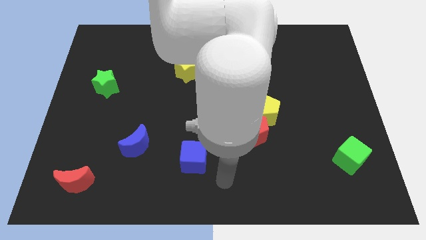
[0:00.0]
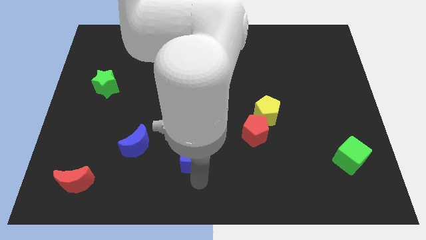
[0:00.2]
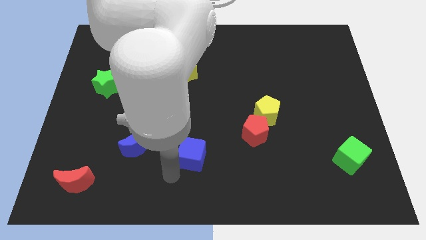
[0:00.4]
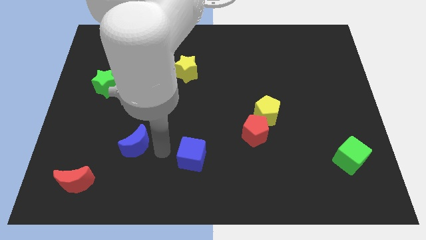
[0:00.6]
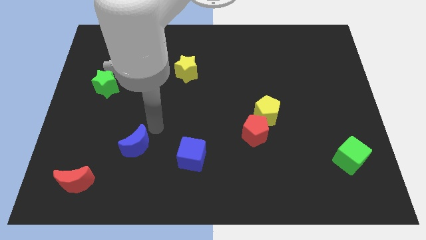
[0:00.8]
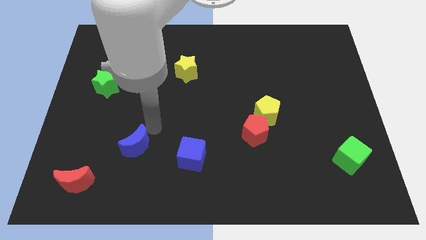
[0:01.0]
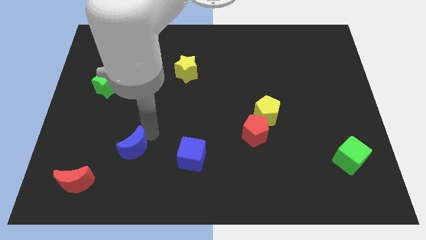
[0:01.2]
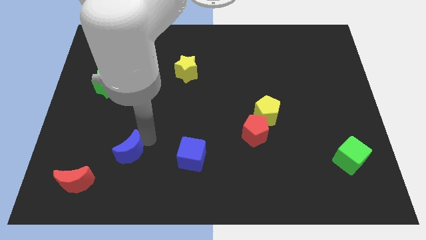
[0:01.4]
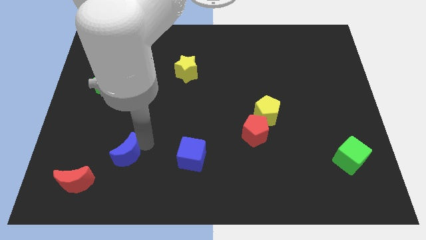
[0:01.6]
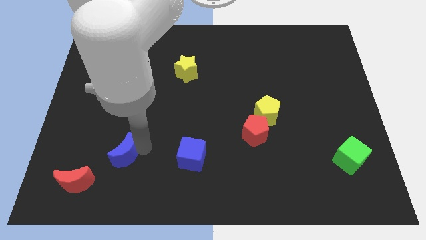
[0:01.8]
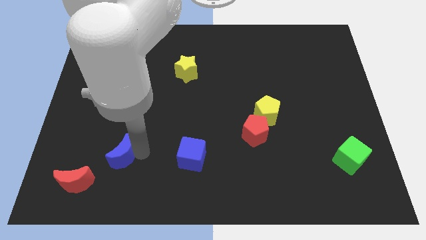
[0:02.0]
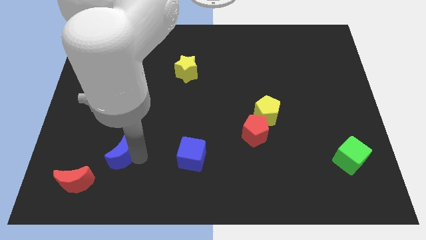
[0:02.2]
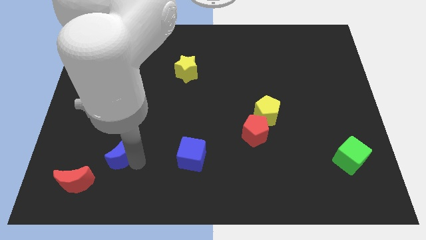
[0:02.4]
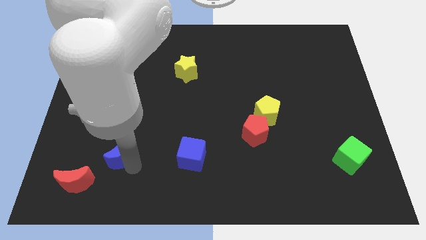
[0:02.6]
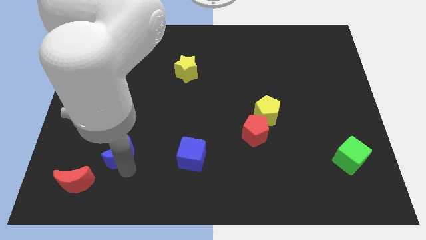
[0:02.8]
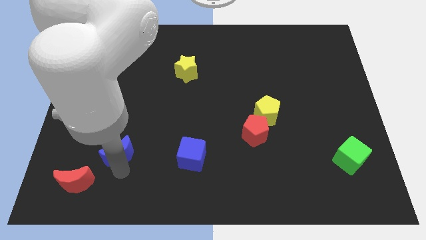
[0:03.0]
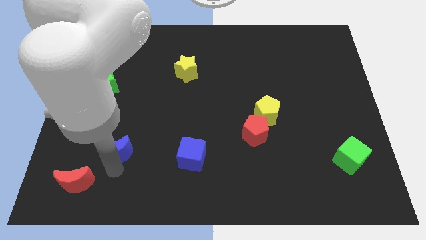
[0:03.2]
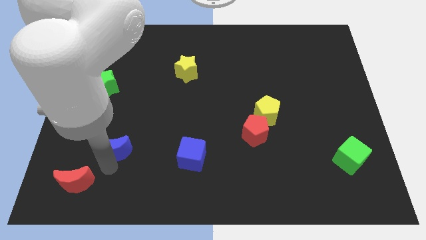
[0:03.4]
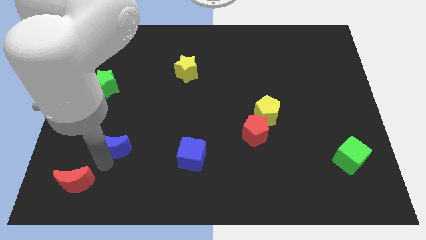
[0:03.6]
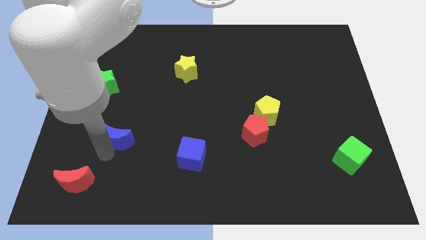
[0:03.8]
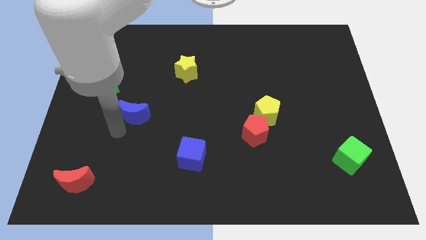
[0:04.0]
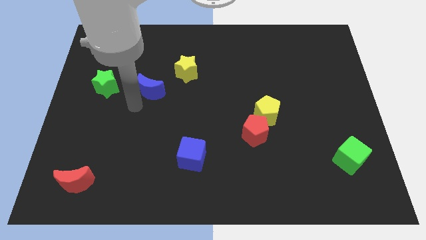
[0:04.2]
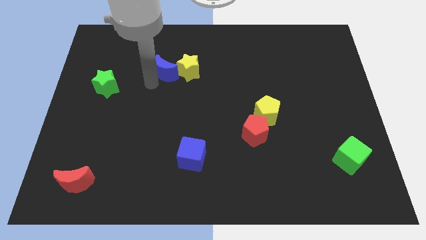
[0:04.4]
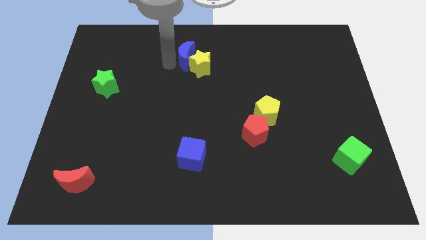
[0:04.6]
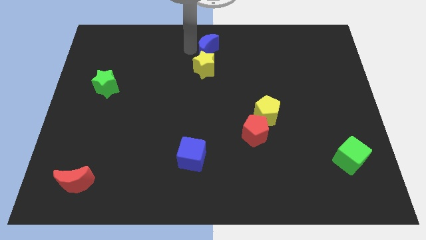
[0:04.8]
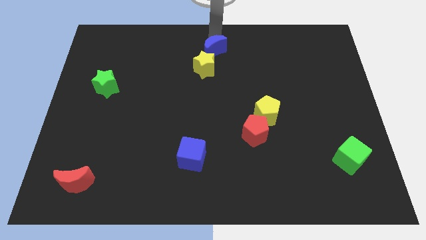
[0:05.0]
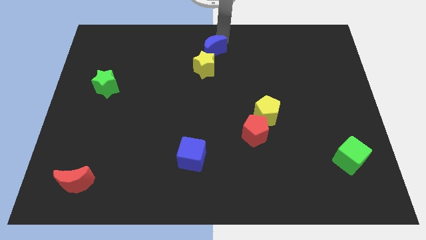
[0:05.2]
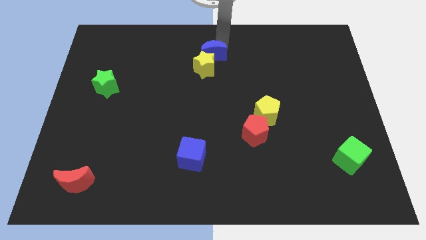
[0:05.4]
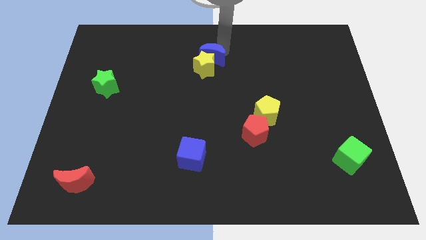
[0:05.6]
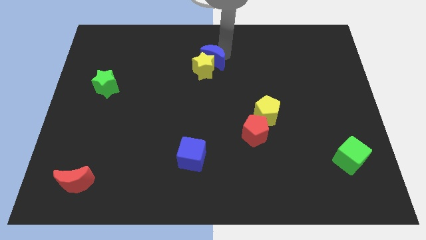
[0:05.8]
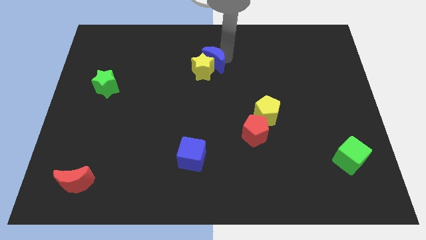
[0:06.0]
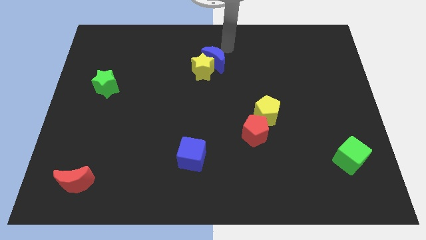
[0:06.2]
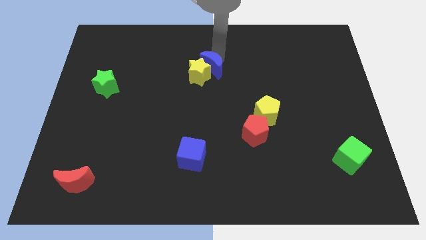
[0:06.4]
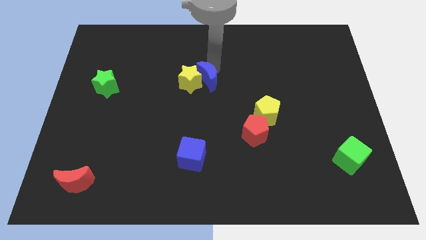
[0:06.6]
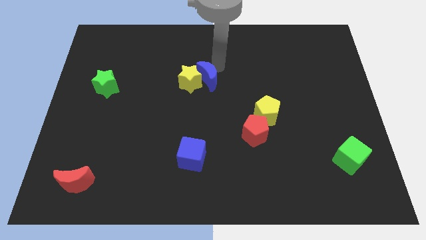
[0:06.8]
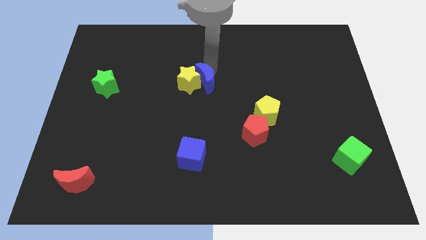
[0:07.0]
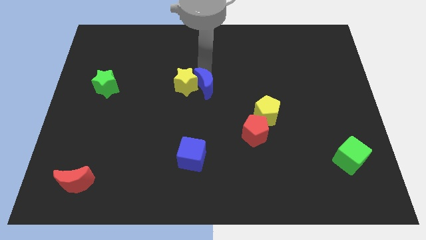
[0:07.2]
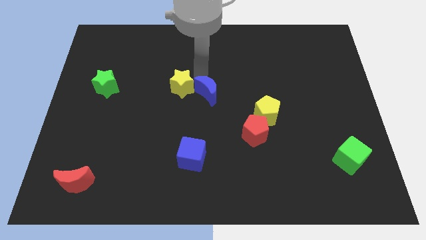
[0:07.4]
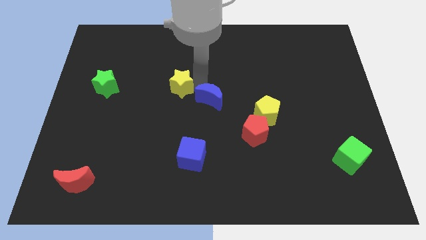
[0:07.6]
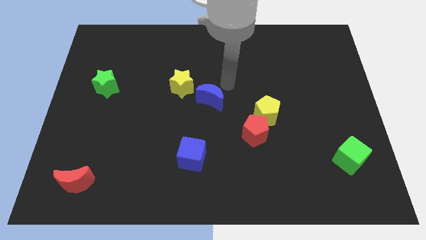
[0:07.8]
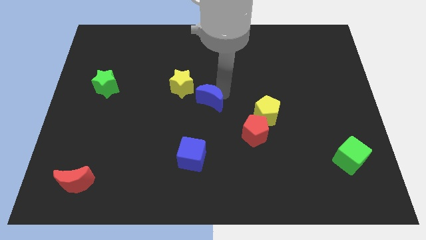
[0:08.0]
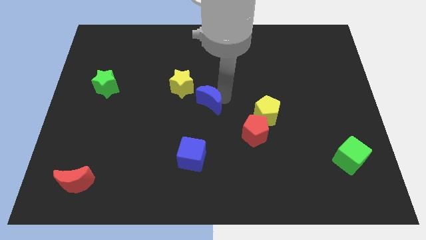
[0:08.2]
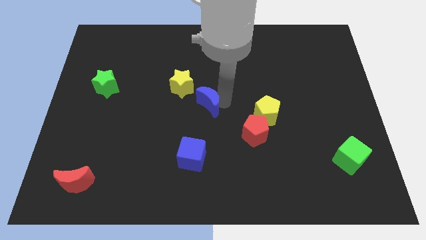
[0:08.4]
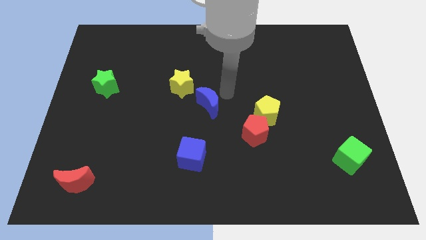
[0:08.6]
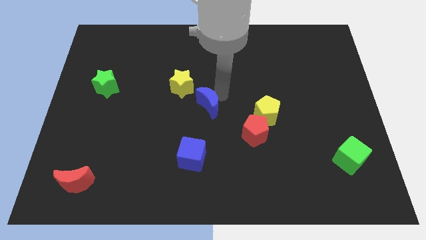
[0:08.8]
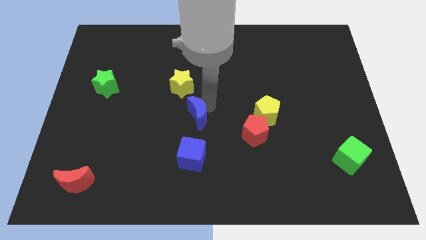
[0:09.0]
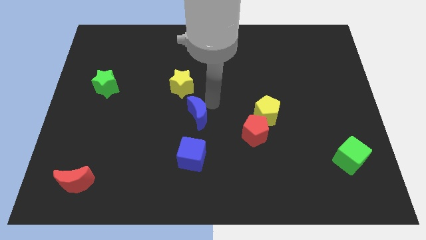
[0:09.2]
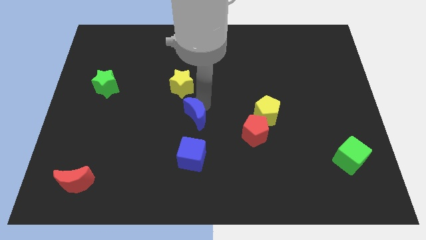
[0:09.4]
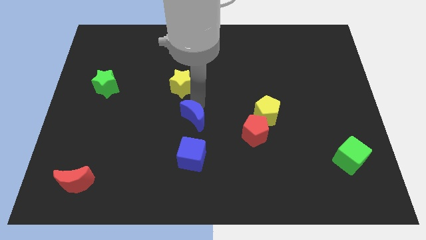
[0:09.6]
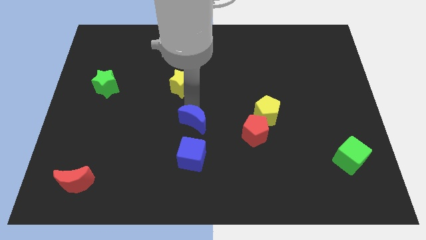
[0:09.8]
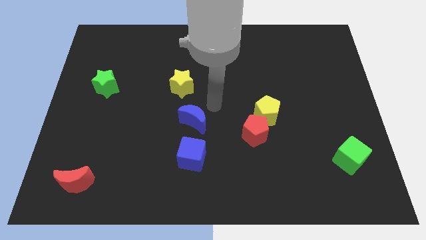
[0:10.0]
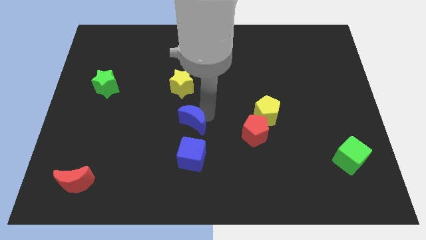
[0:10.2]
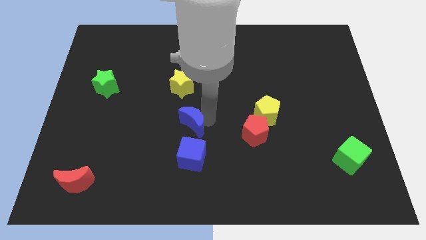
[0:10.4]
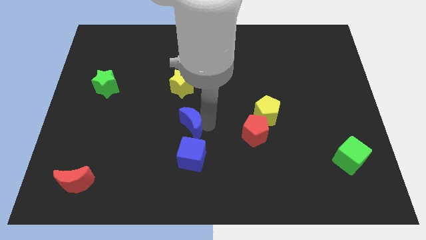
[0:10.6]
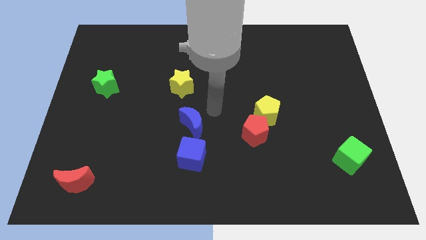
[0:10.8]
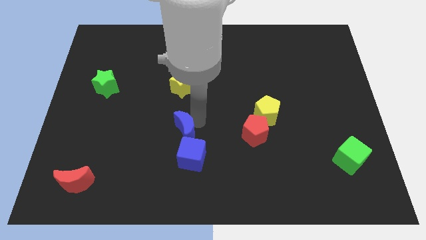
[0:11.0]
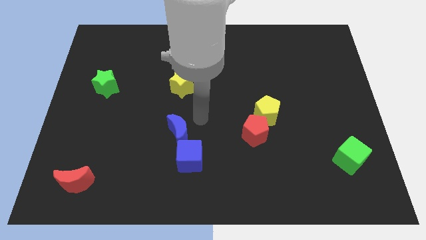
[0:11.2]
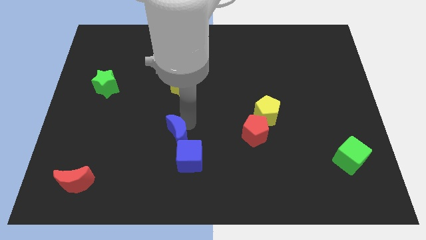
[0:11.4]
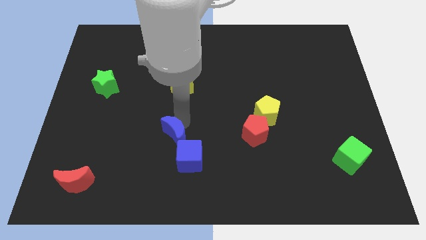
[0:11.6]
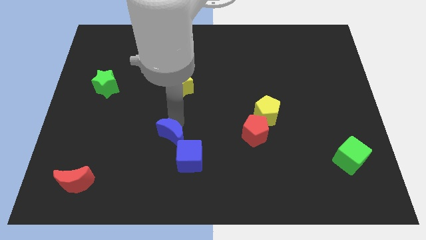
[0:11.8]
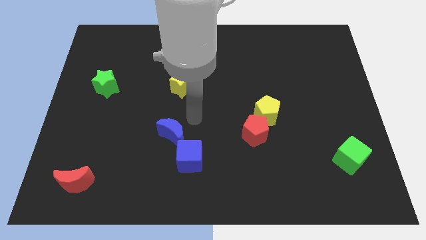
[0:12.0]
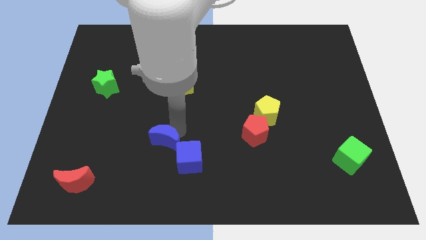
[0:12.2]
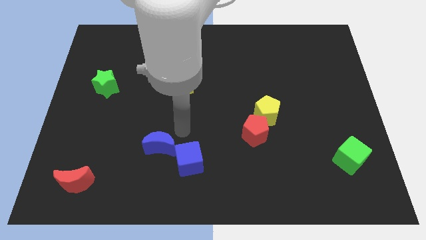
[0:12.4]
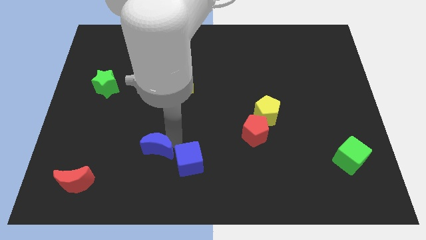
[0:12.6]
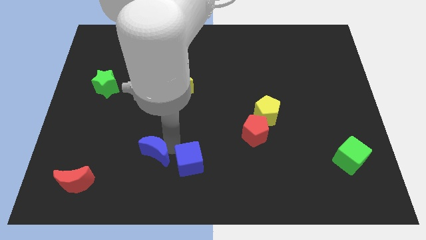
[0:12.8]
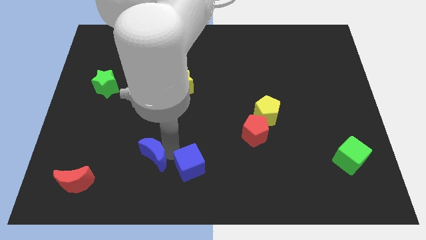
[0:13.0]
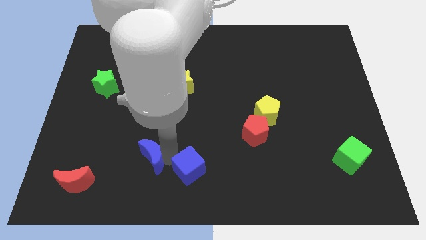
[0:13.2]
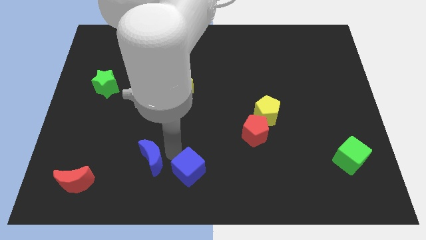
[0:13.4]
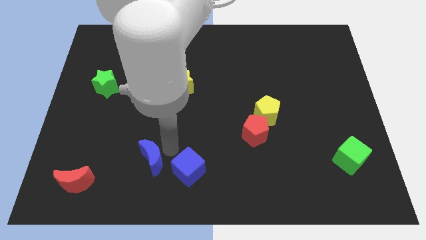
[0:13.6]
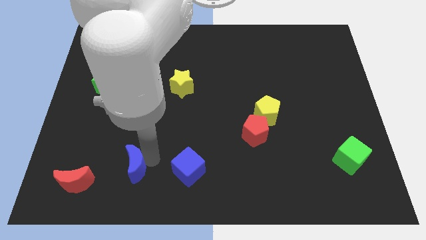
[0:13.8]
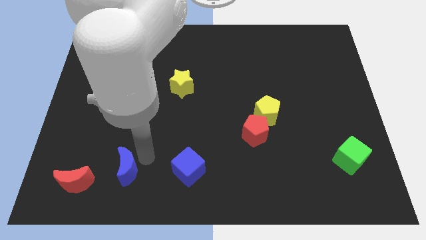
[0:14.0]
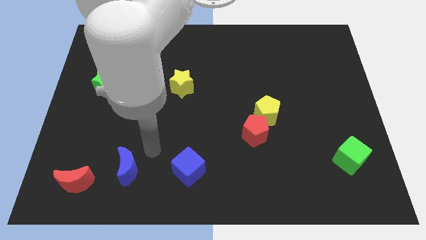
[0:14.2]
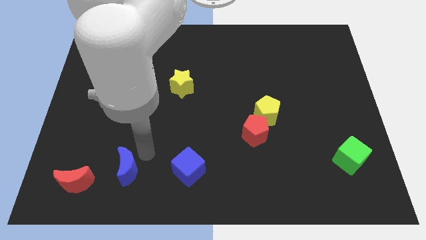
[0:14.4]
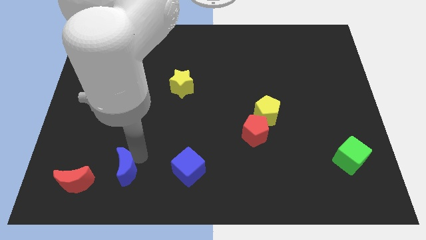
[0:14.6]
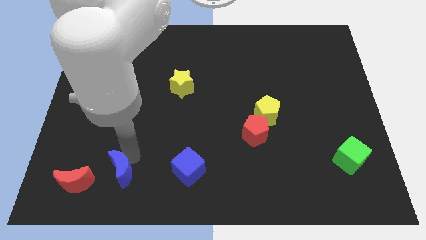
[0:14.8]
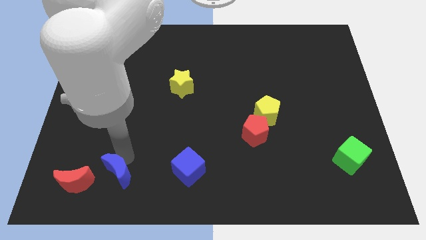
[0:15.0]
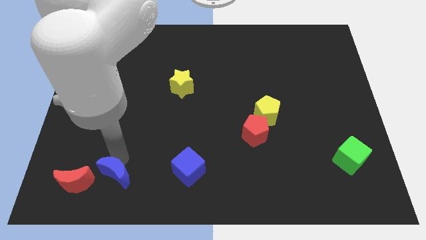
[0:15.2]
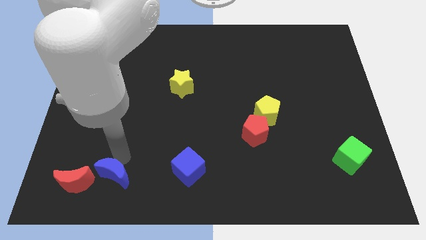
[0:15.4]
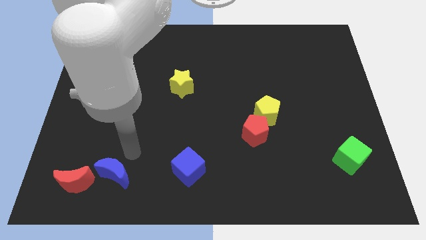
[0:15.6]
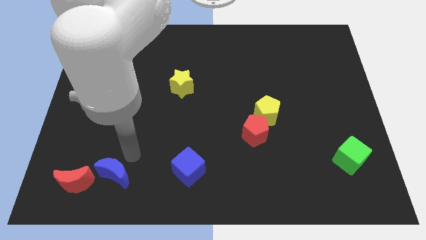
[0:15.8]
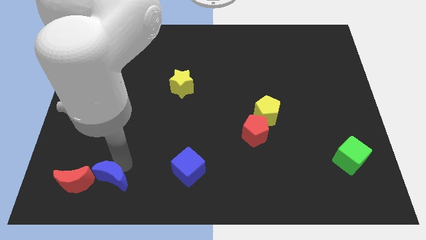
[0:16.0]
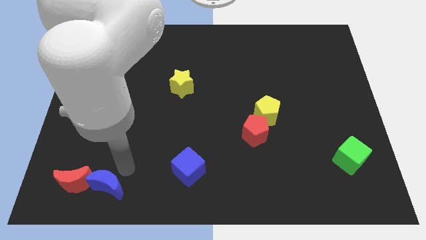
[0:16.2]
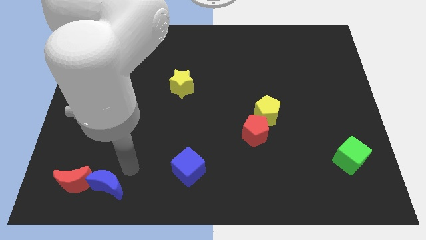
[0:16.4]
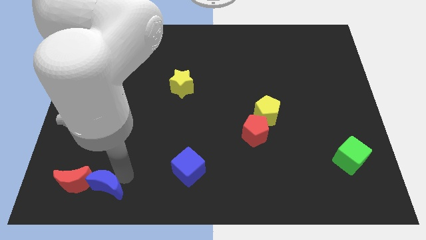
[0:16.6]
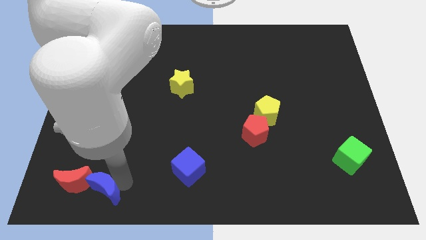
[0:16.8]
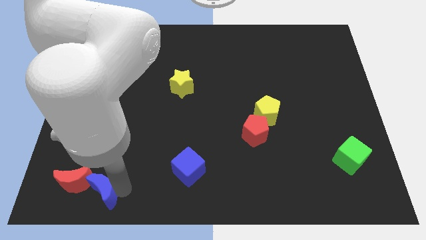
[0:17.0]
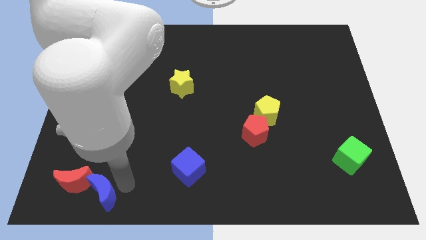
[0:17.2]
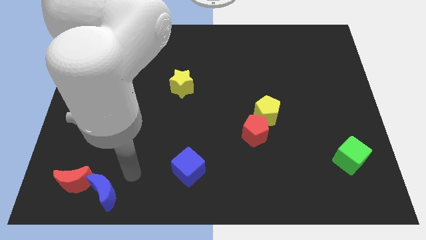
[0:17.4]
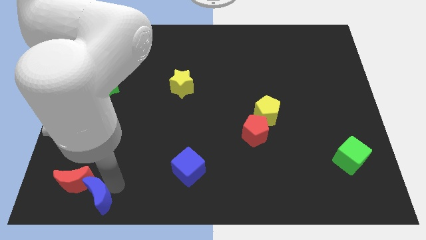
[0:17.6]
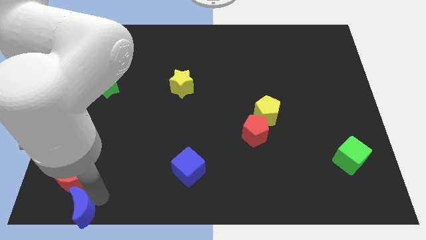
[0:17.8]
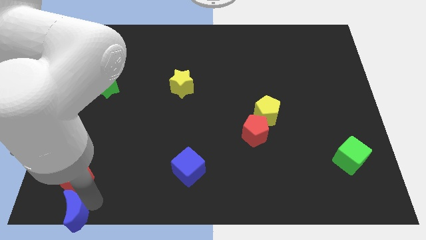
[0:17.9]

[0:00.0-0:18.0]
move the blue moon to the bottom left of the board
